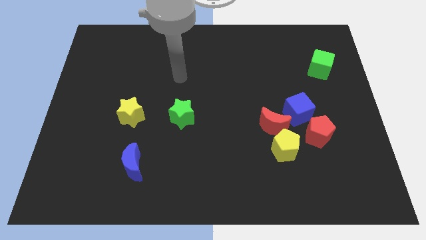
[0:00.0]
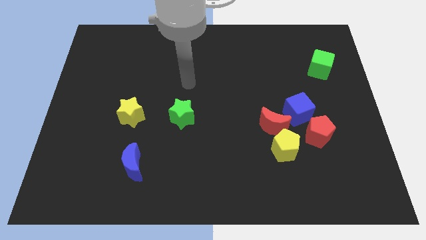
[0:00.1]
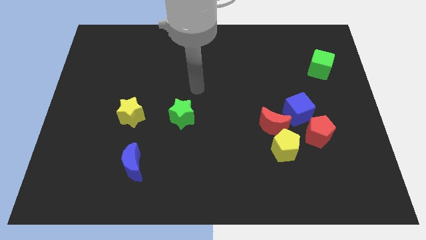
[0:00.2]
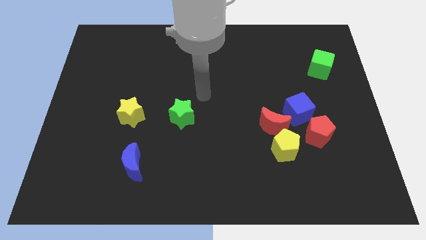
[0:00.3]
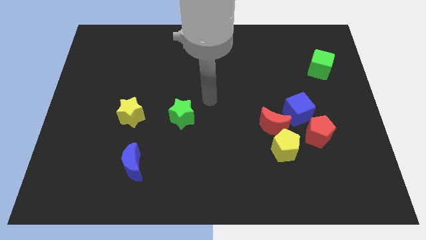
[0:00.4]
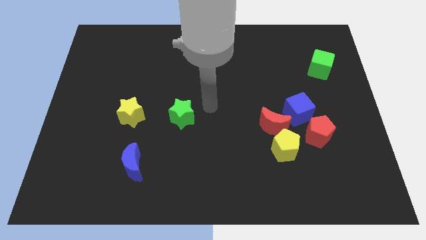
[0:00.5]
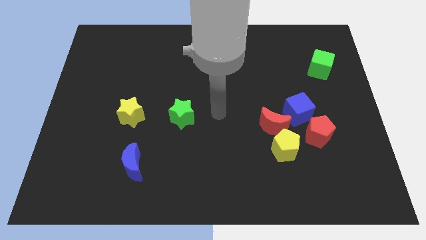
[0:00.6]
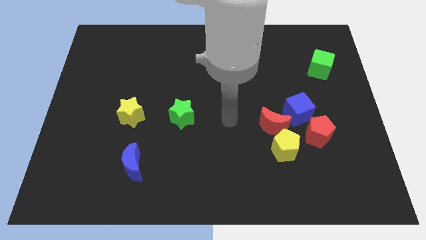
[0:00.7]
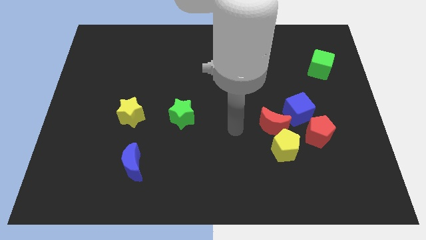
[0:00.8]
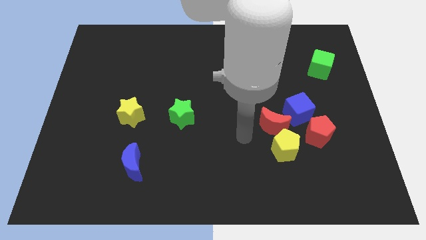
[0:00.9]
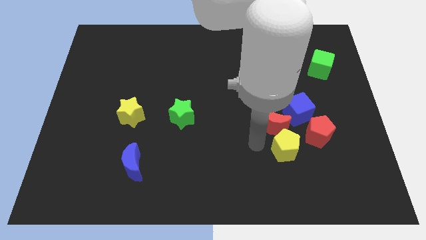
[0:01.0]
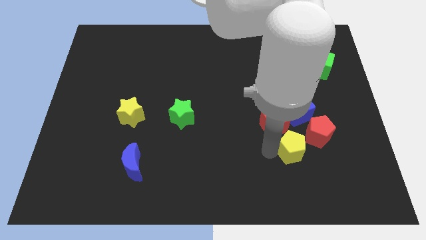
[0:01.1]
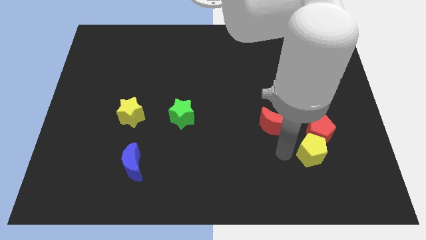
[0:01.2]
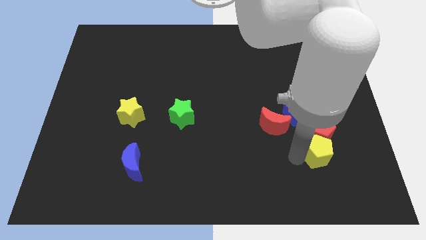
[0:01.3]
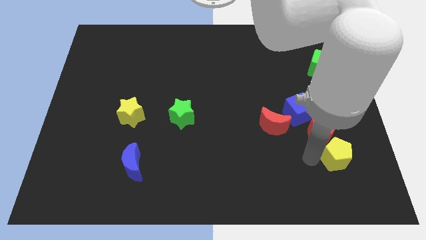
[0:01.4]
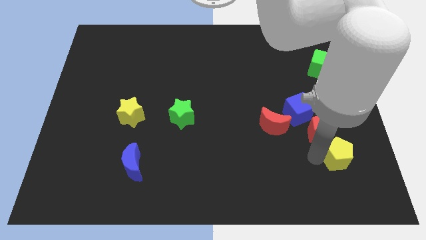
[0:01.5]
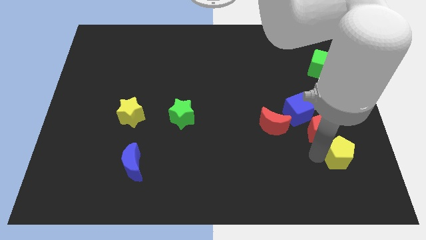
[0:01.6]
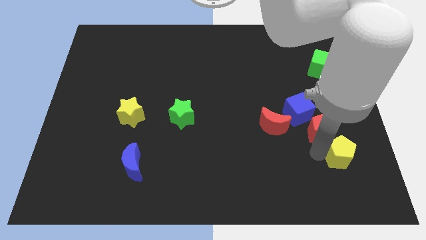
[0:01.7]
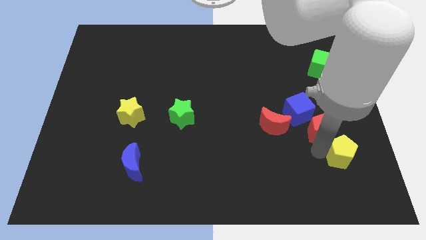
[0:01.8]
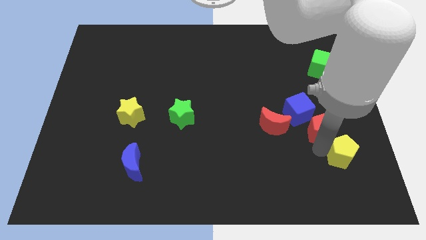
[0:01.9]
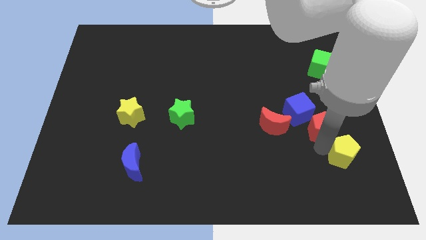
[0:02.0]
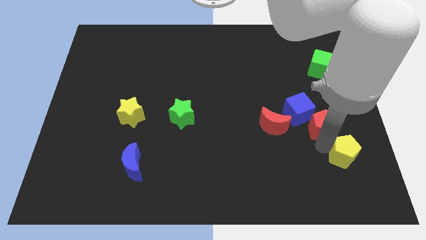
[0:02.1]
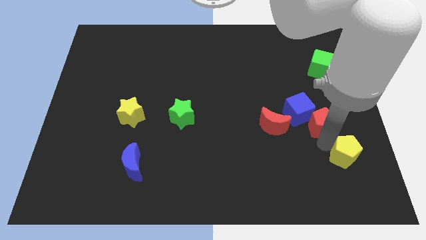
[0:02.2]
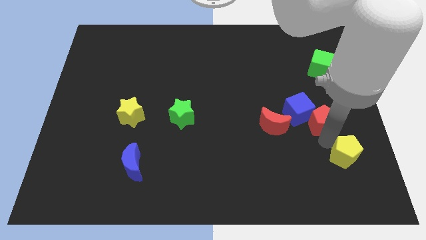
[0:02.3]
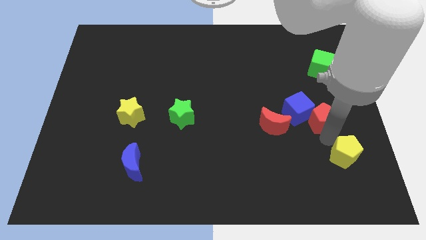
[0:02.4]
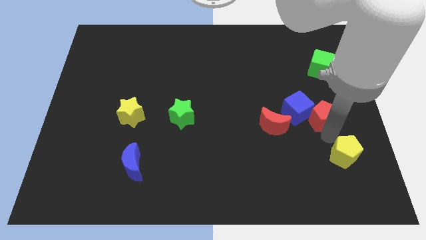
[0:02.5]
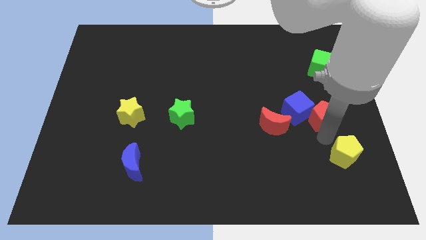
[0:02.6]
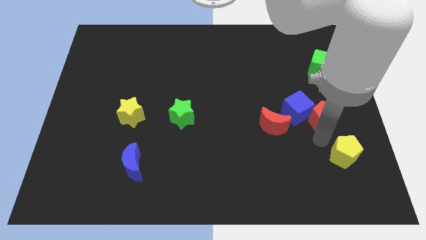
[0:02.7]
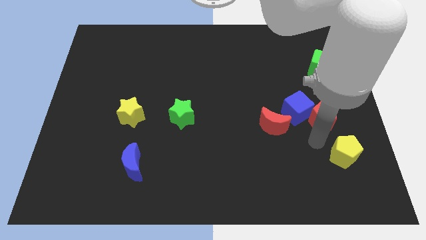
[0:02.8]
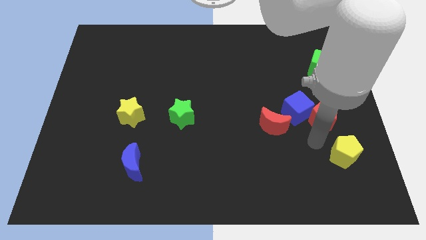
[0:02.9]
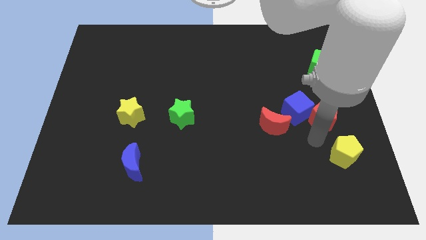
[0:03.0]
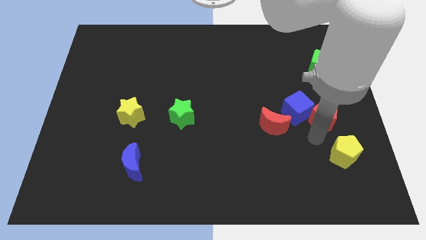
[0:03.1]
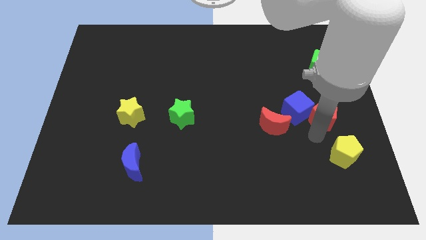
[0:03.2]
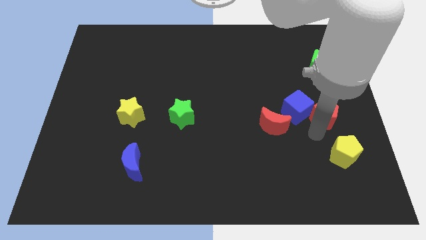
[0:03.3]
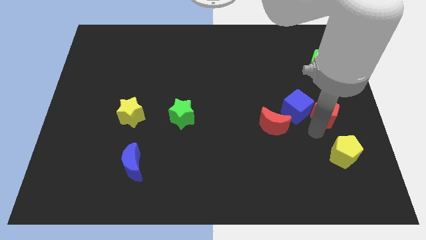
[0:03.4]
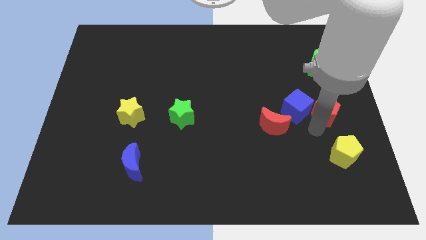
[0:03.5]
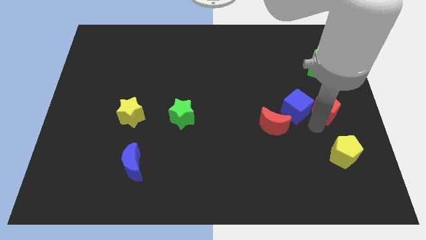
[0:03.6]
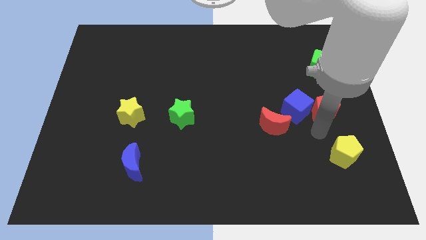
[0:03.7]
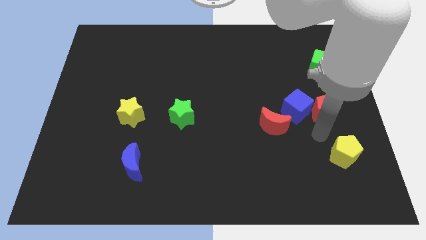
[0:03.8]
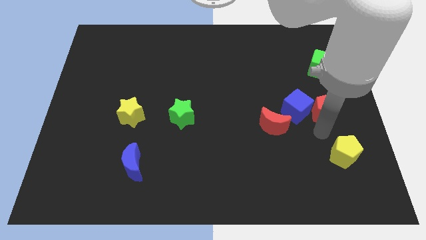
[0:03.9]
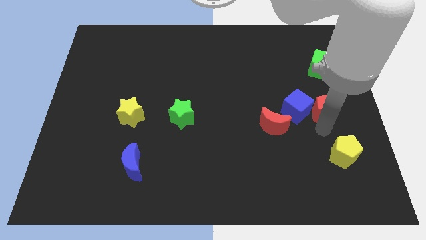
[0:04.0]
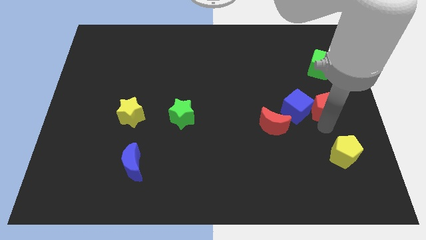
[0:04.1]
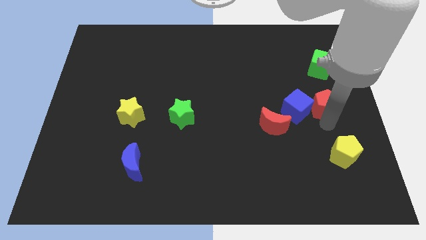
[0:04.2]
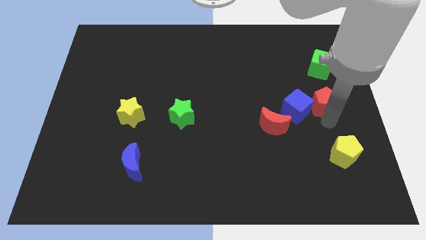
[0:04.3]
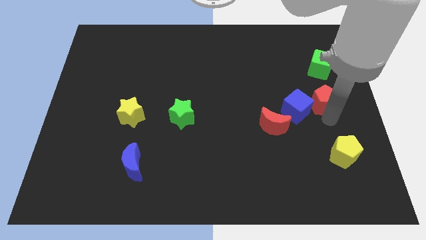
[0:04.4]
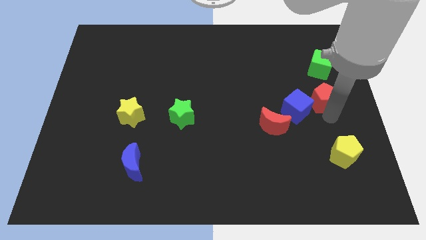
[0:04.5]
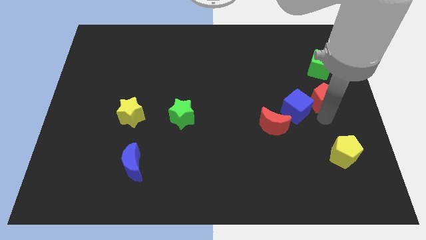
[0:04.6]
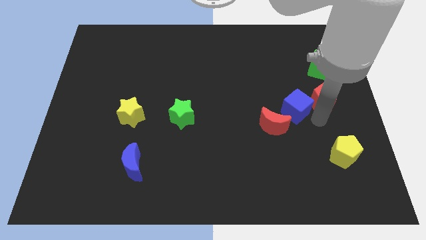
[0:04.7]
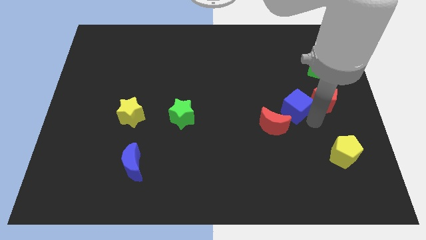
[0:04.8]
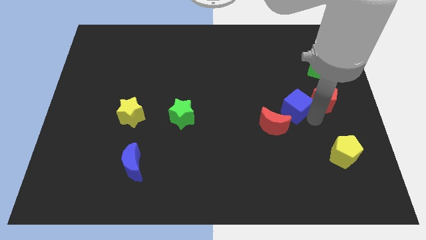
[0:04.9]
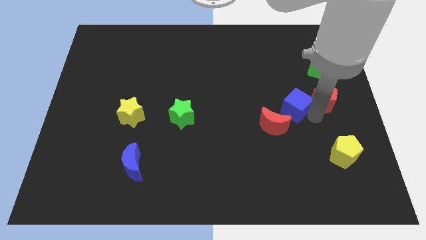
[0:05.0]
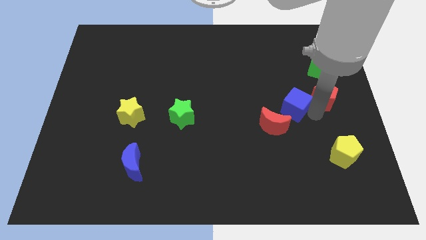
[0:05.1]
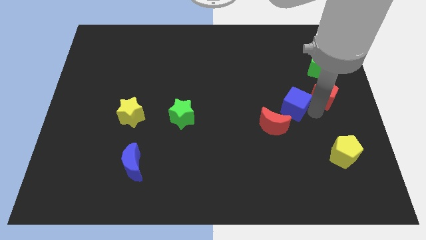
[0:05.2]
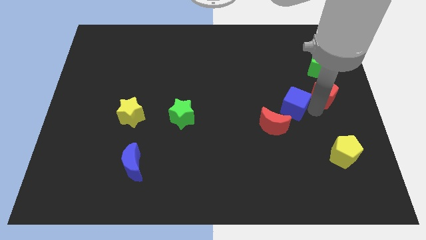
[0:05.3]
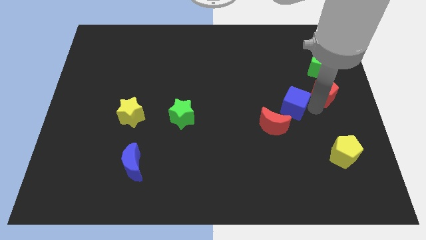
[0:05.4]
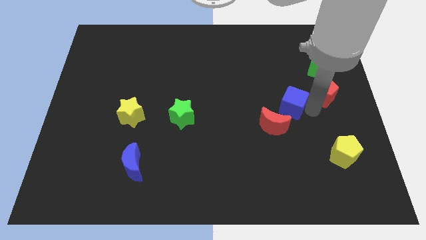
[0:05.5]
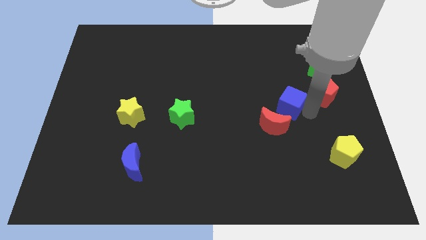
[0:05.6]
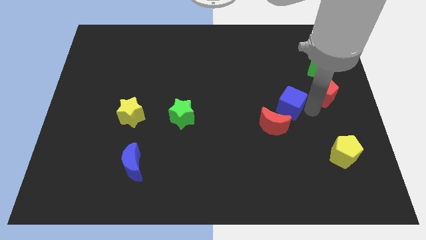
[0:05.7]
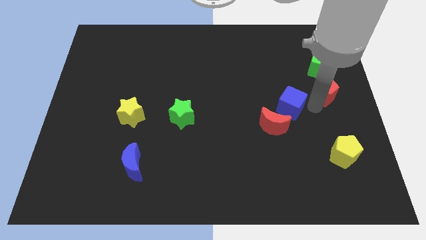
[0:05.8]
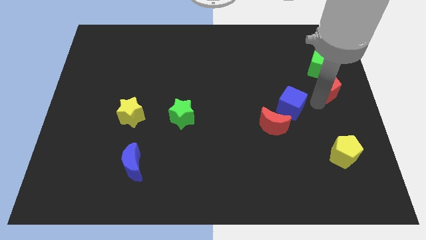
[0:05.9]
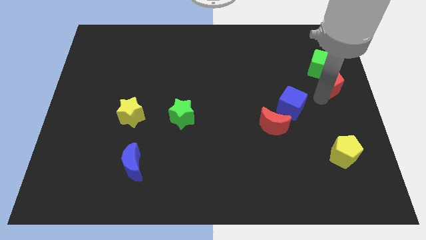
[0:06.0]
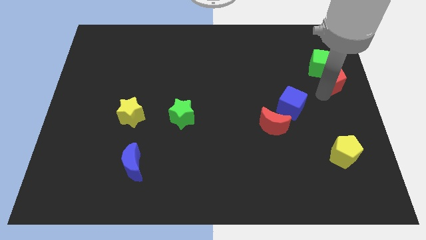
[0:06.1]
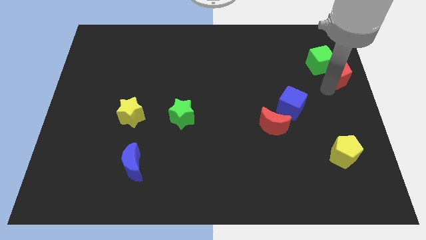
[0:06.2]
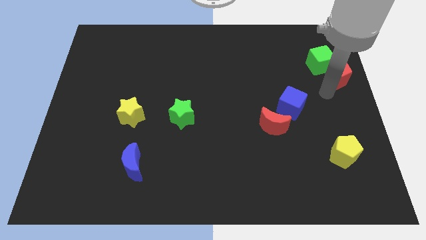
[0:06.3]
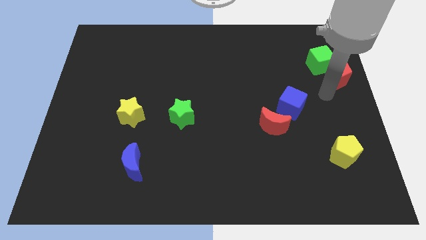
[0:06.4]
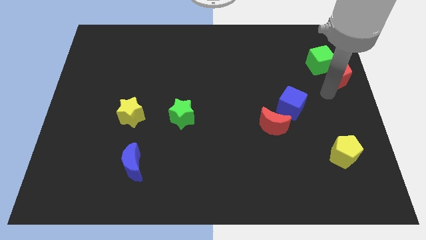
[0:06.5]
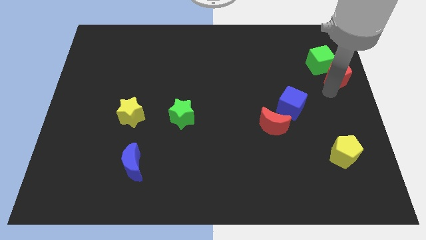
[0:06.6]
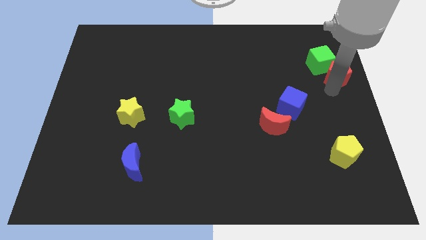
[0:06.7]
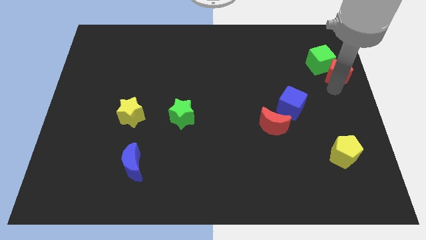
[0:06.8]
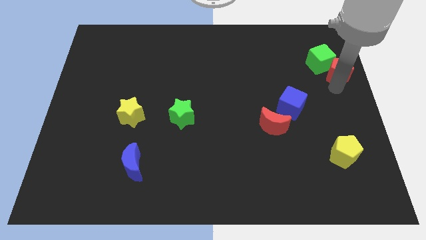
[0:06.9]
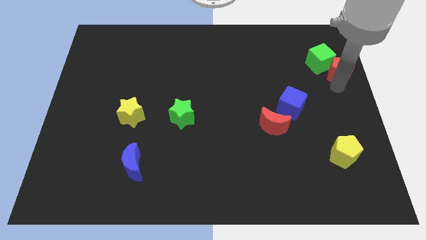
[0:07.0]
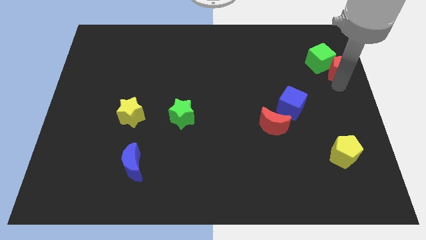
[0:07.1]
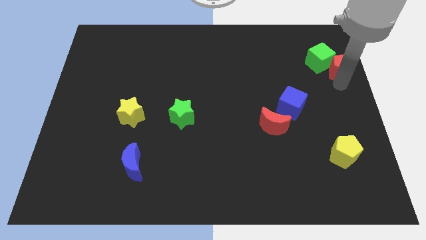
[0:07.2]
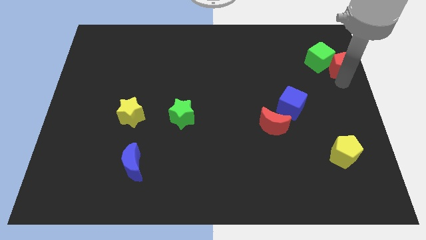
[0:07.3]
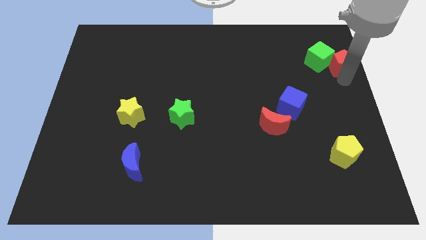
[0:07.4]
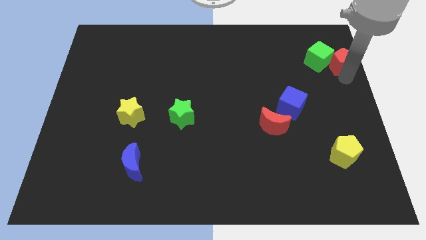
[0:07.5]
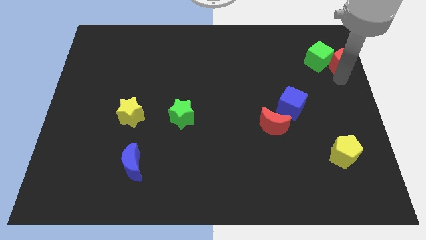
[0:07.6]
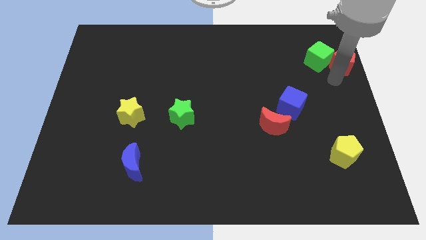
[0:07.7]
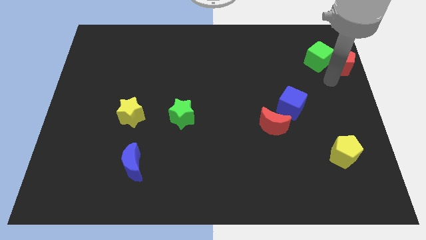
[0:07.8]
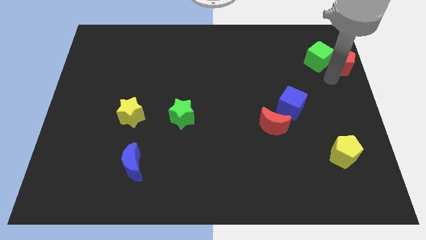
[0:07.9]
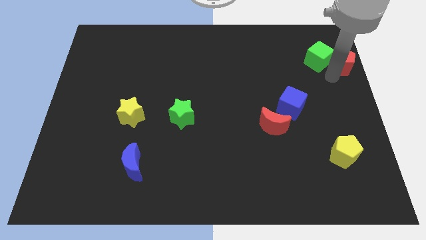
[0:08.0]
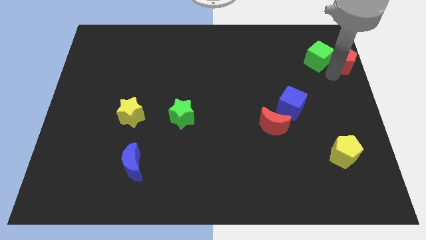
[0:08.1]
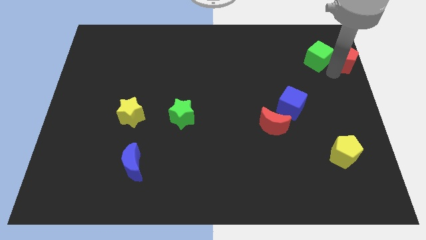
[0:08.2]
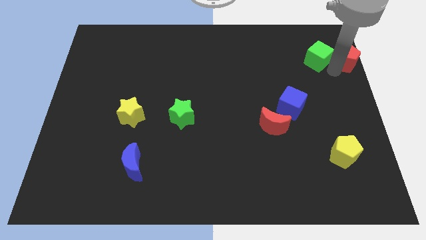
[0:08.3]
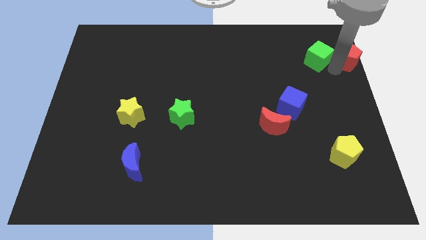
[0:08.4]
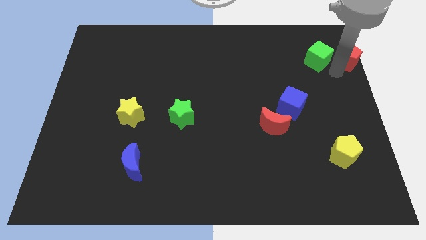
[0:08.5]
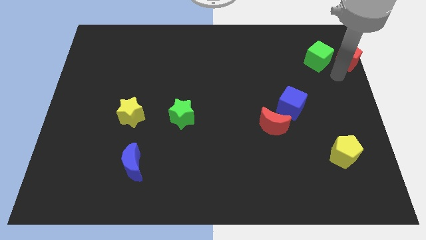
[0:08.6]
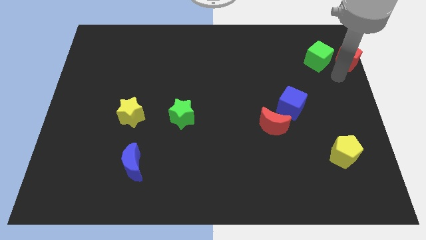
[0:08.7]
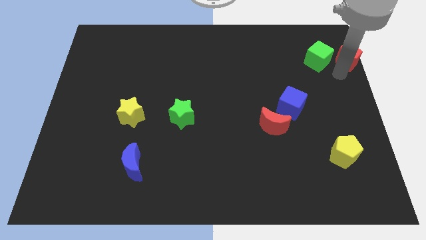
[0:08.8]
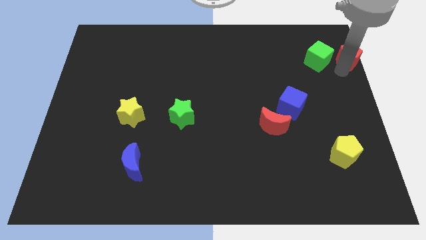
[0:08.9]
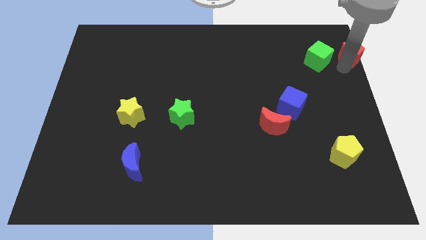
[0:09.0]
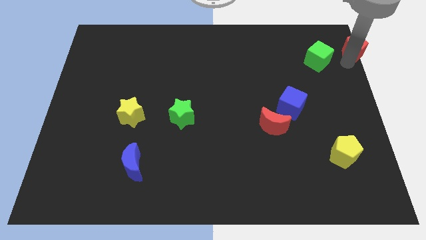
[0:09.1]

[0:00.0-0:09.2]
slide the red pentagon to the top right of the board
